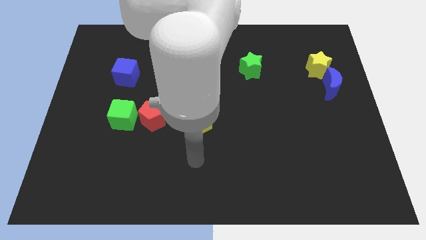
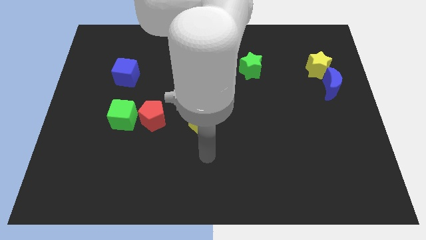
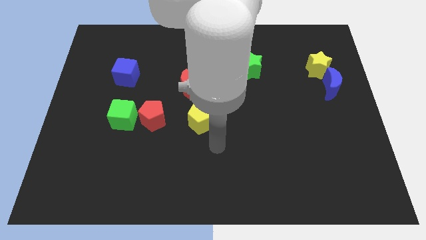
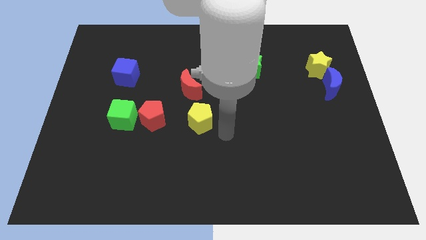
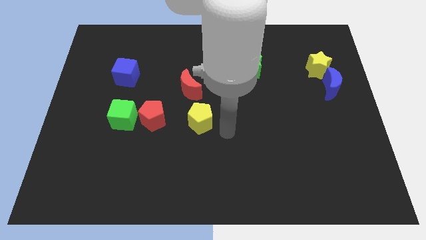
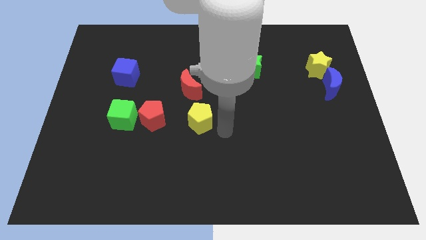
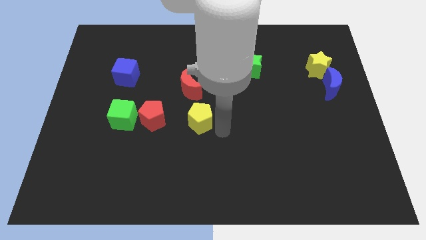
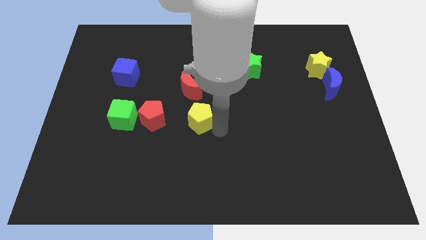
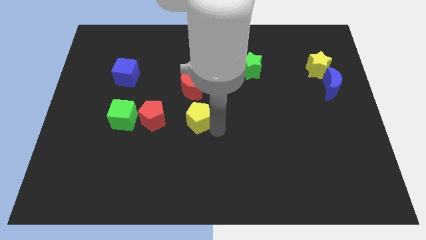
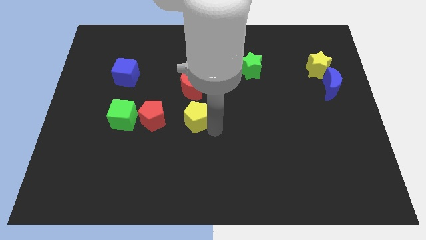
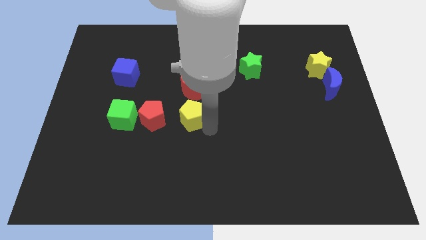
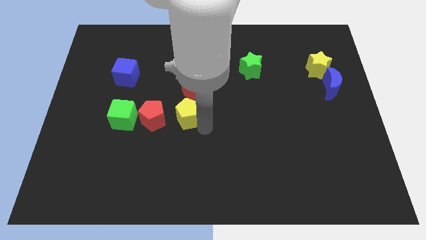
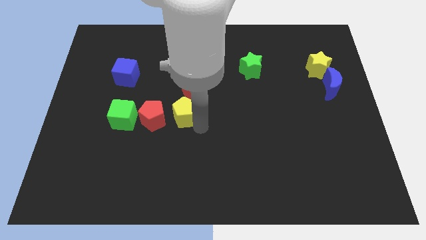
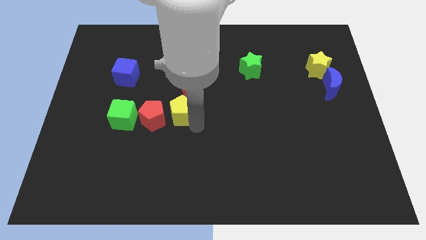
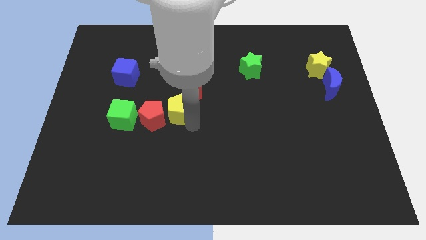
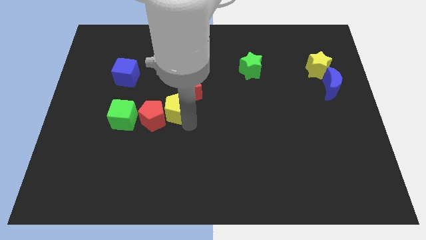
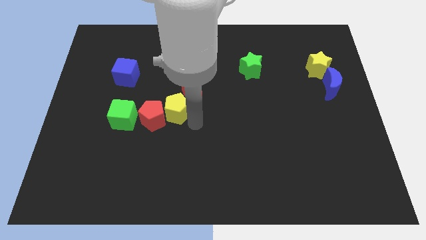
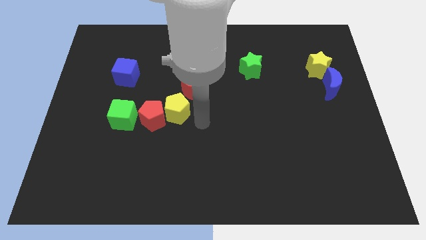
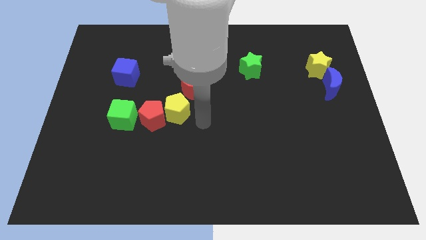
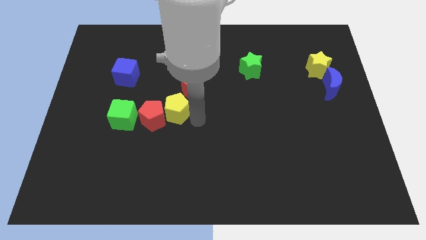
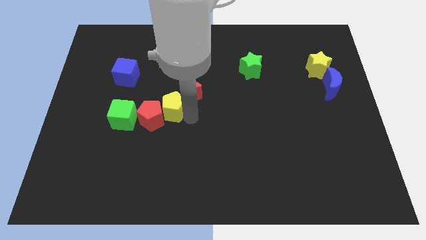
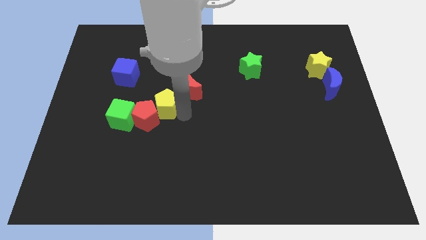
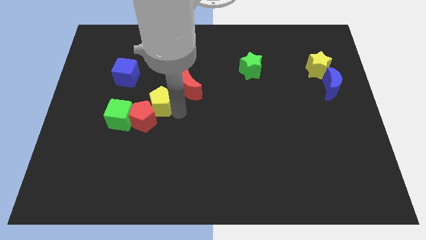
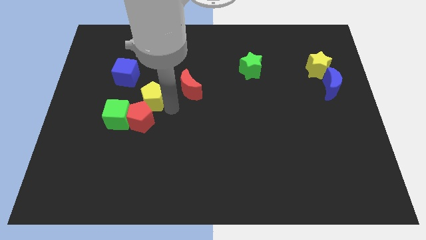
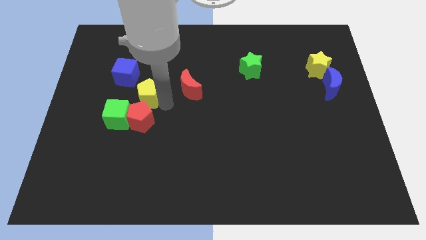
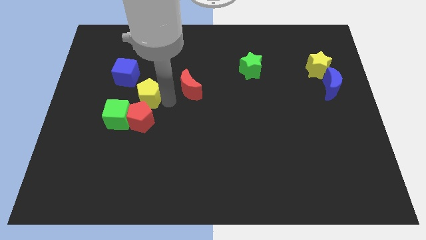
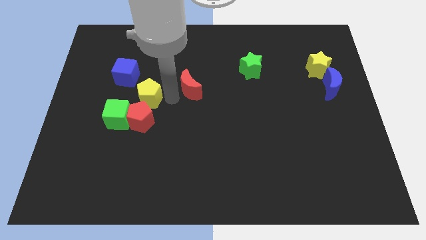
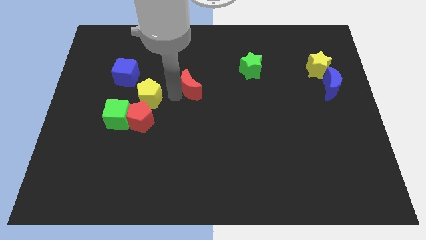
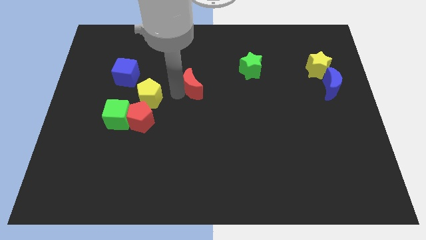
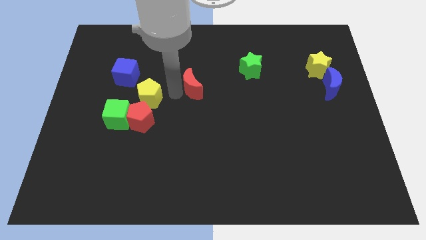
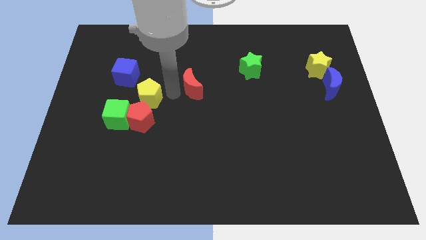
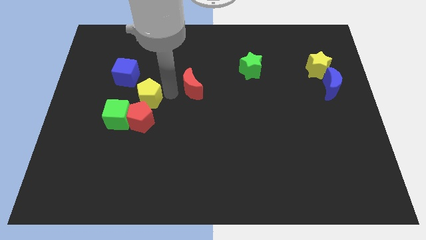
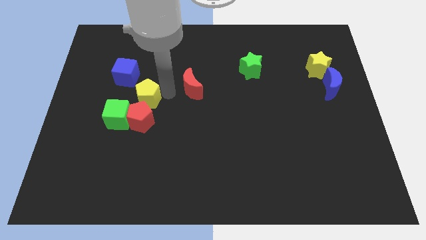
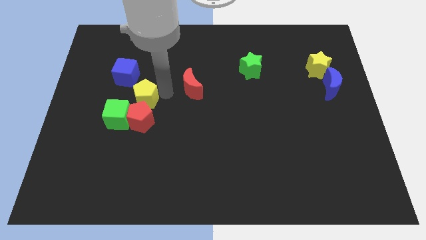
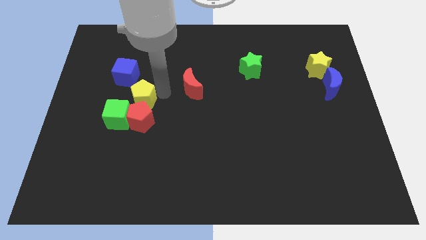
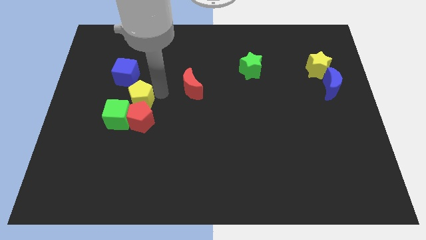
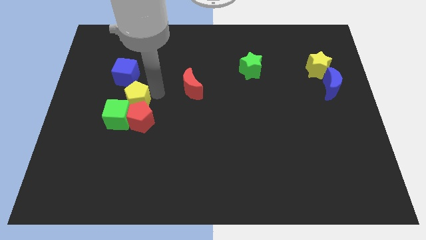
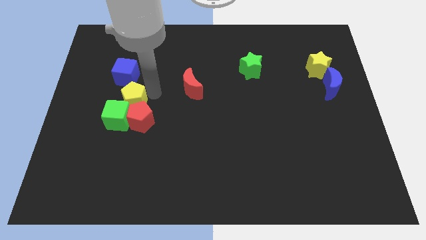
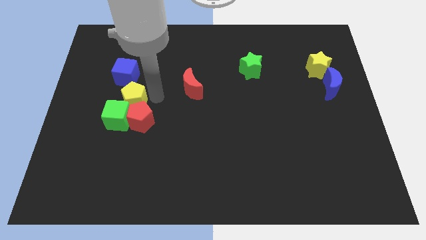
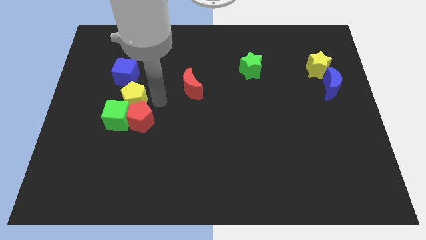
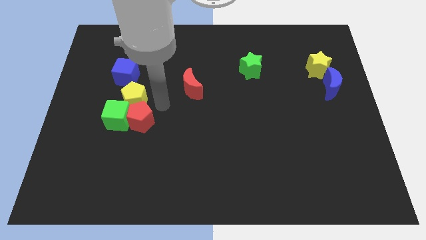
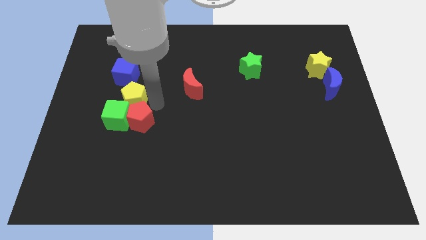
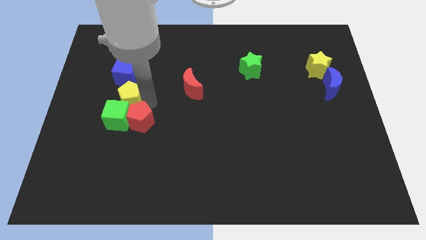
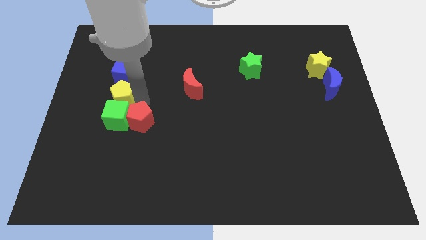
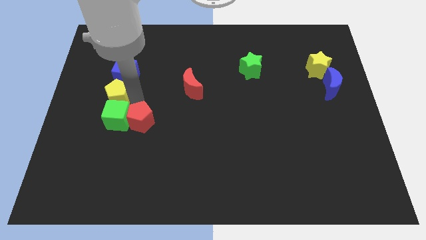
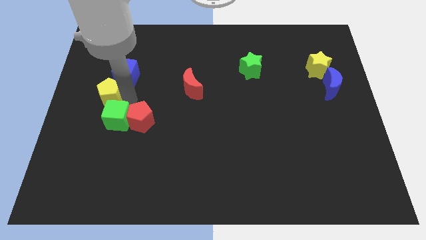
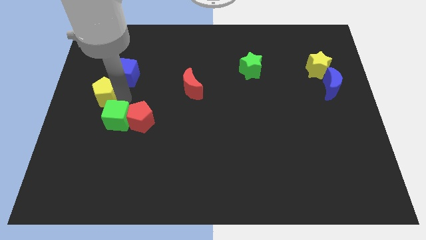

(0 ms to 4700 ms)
push the yellow pentagon to the center left

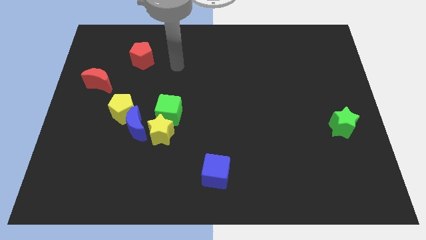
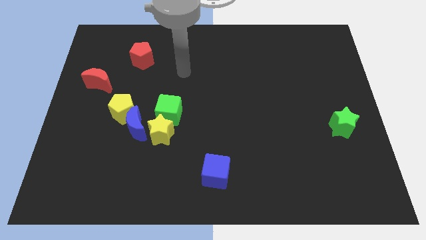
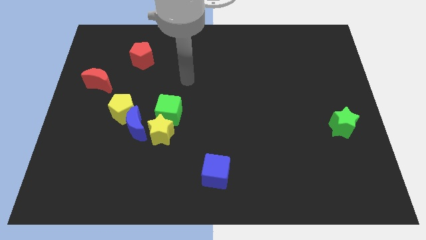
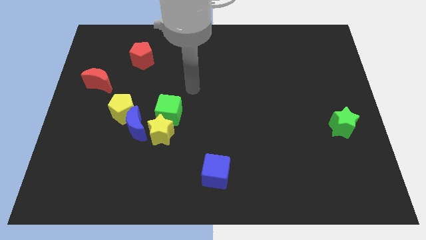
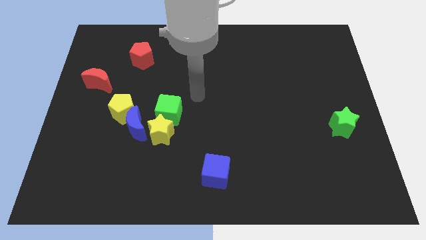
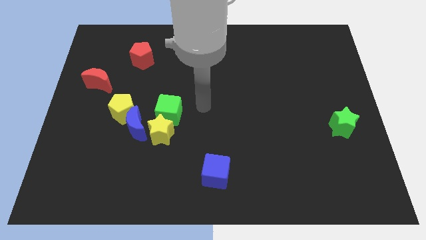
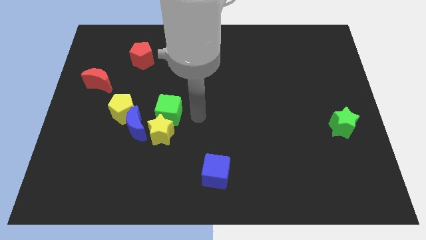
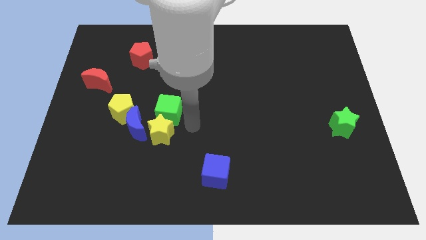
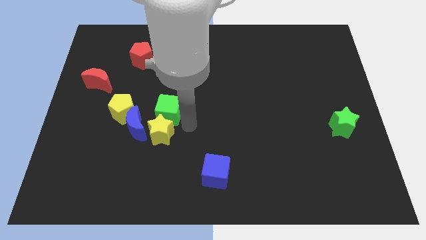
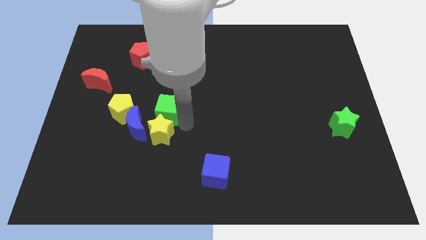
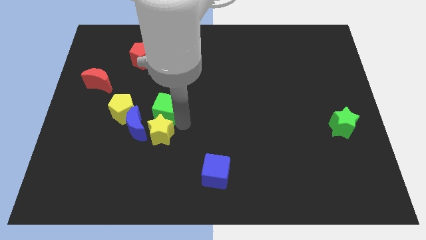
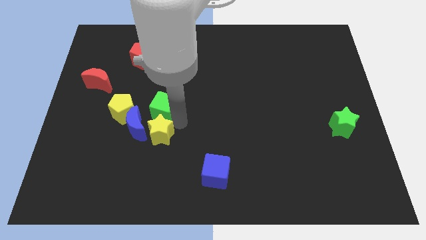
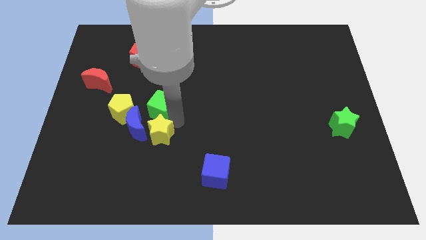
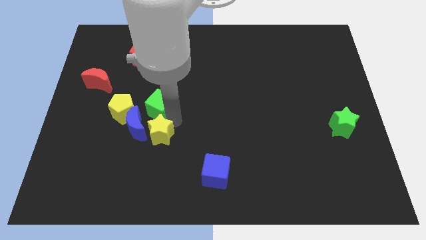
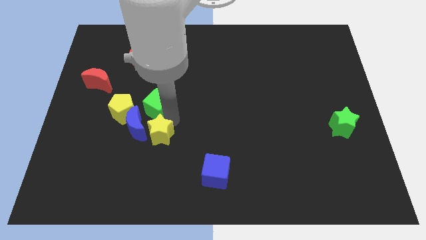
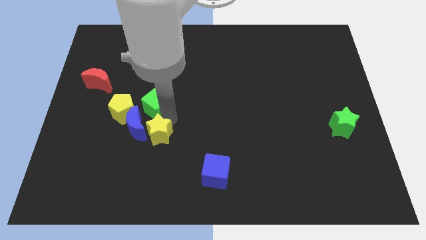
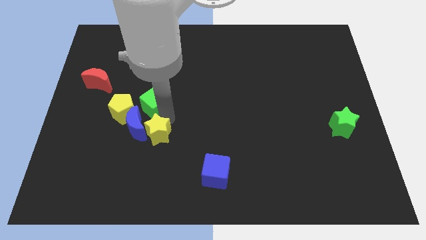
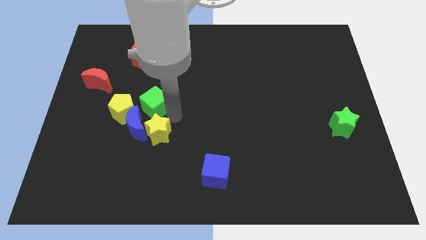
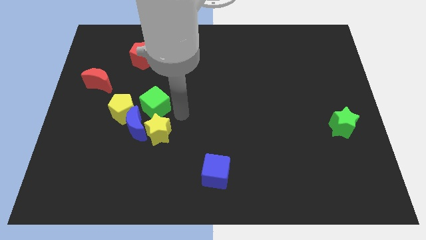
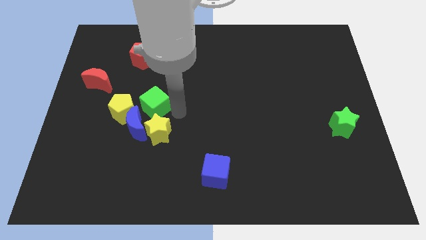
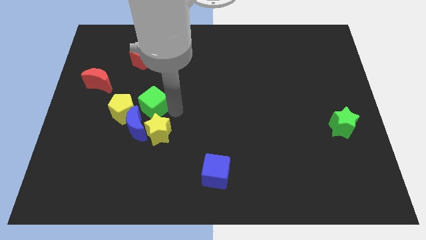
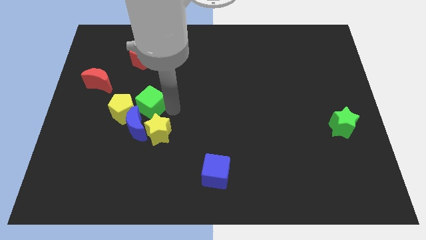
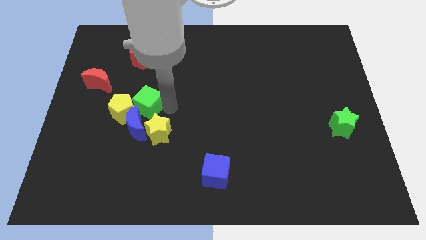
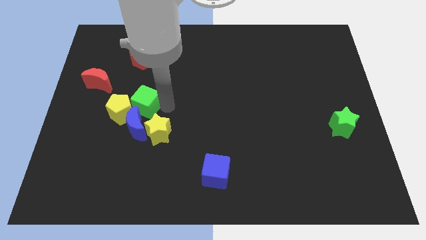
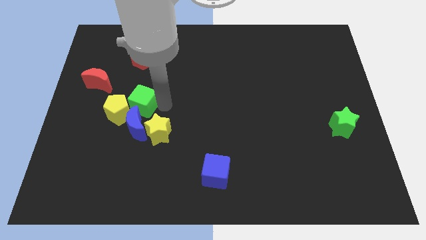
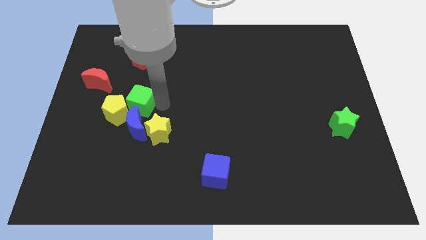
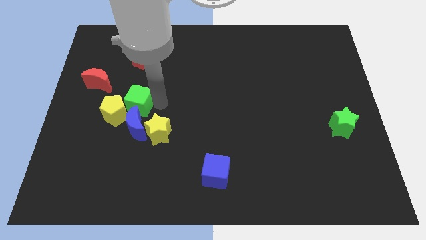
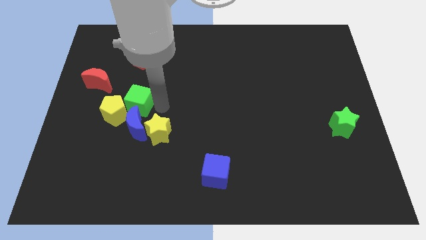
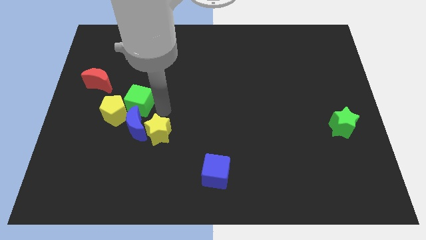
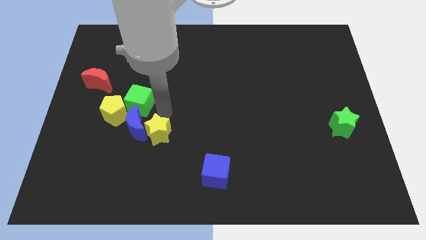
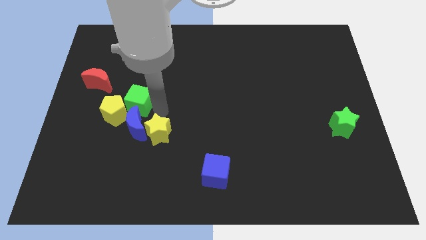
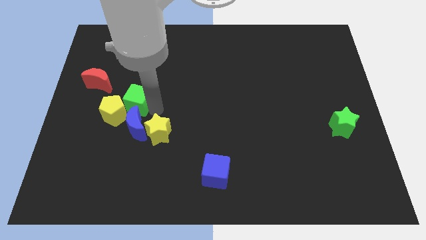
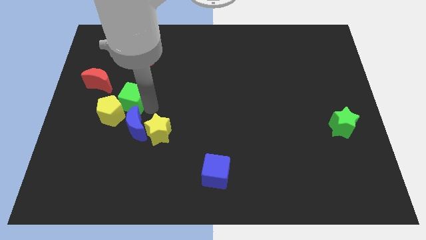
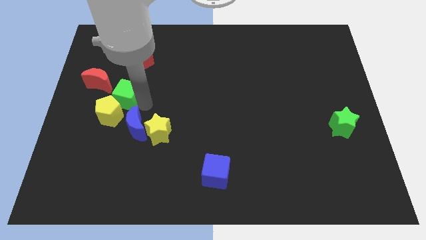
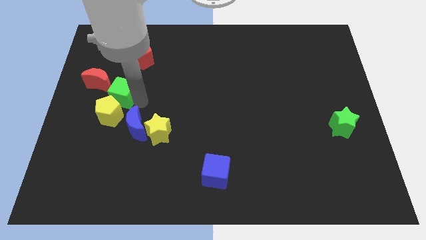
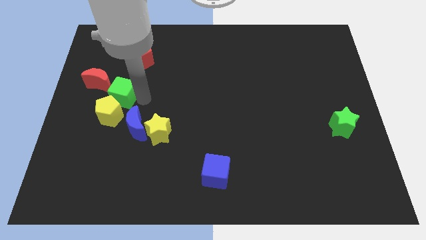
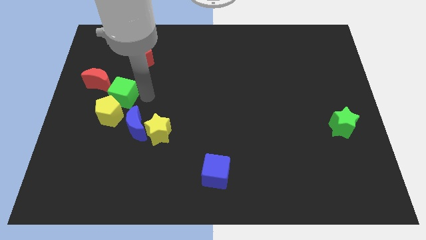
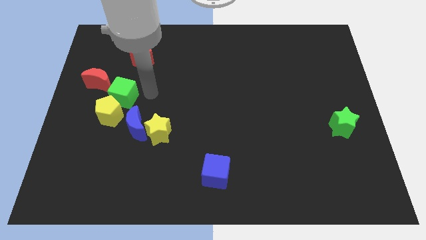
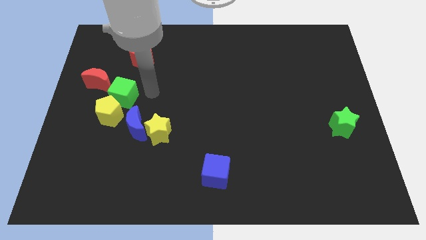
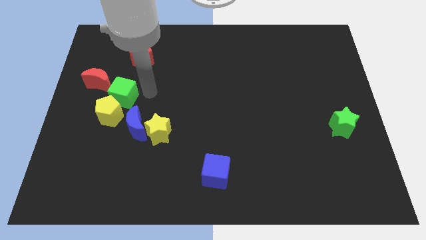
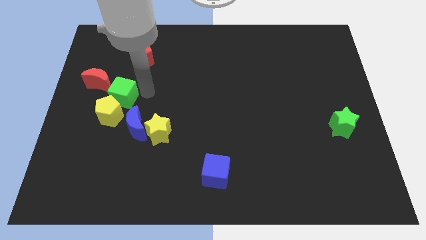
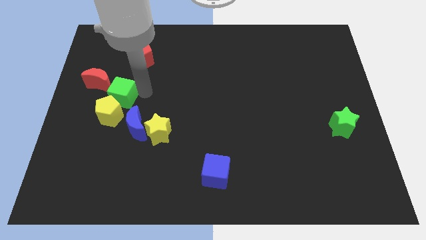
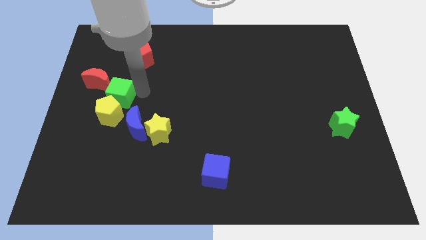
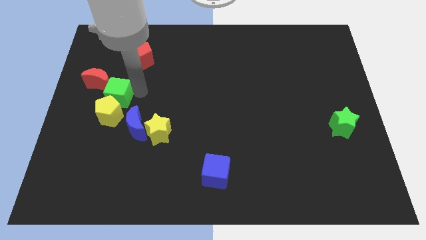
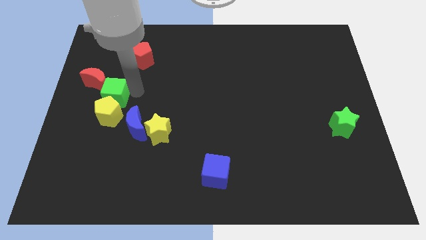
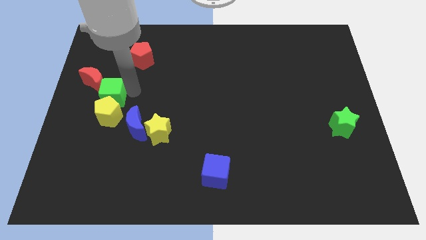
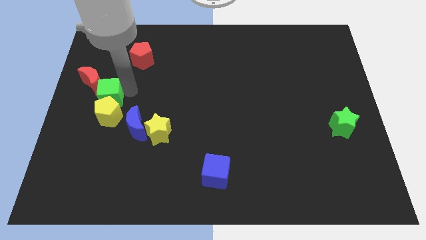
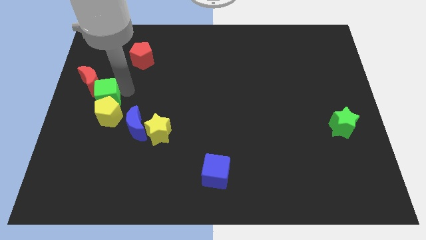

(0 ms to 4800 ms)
put the green cube to the left side
